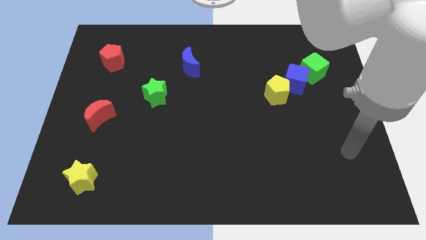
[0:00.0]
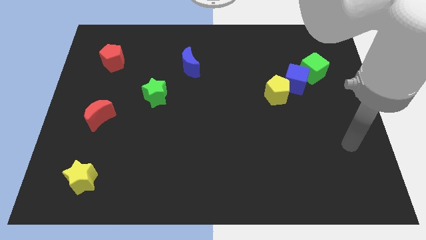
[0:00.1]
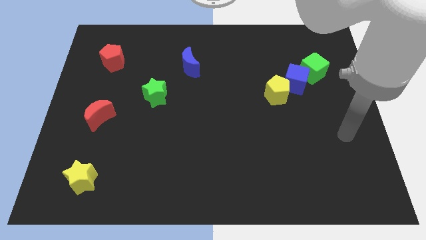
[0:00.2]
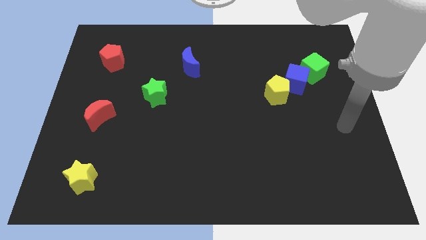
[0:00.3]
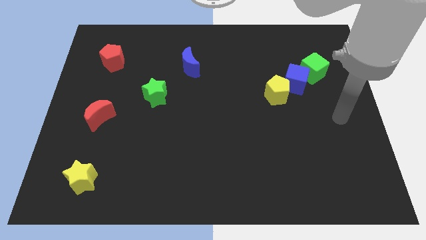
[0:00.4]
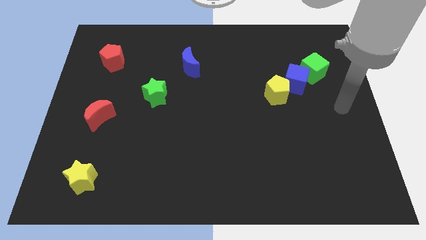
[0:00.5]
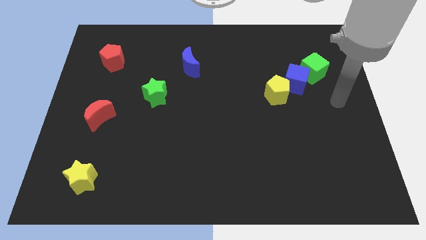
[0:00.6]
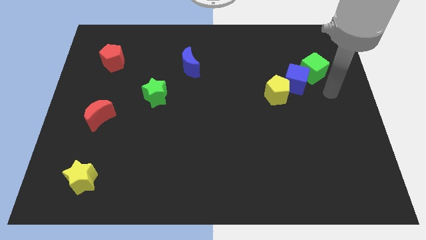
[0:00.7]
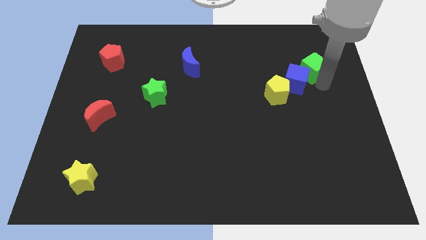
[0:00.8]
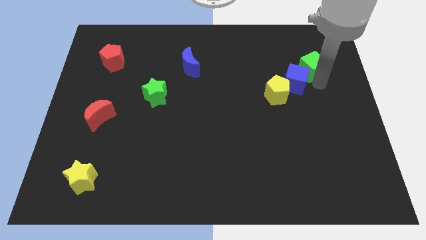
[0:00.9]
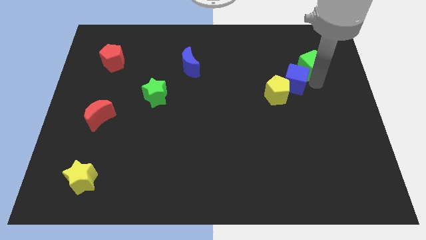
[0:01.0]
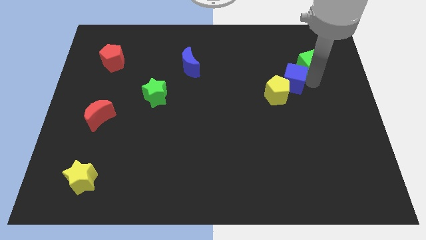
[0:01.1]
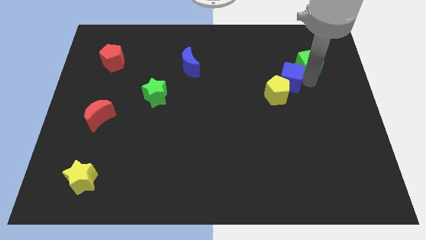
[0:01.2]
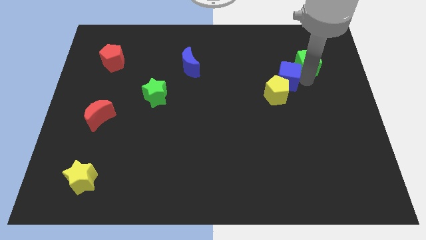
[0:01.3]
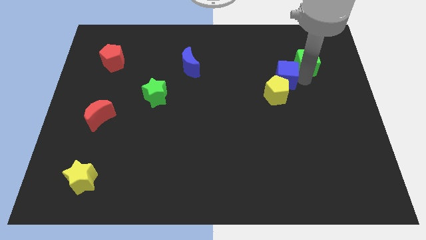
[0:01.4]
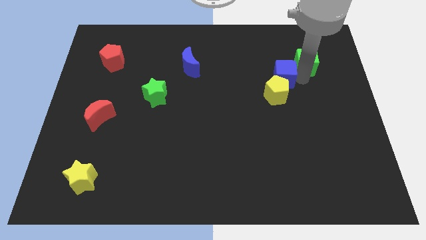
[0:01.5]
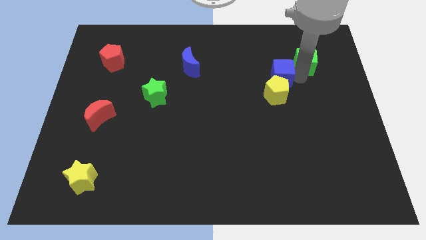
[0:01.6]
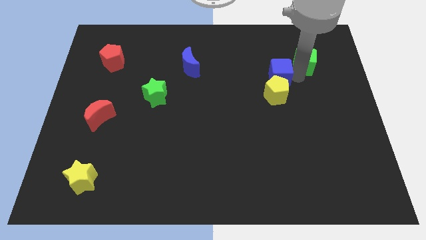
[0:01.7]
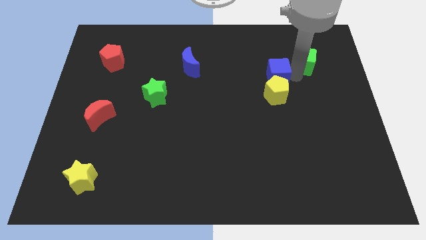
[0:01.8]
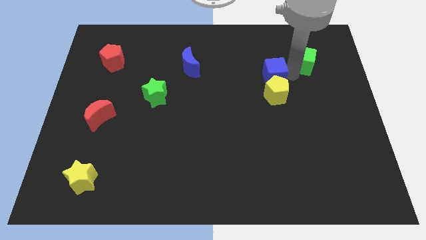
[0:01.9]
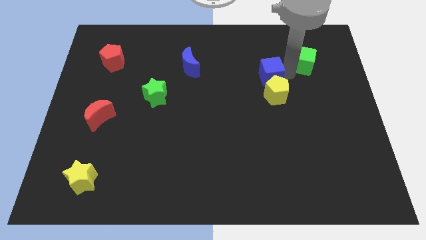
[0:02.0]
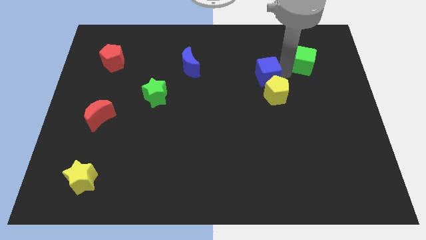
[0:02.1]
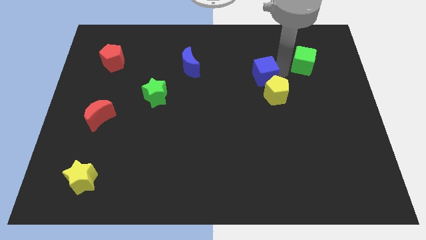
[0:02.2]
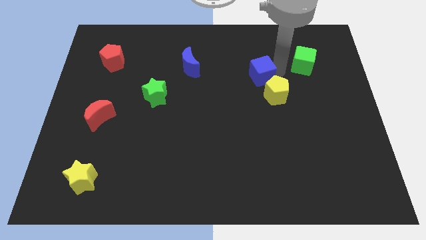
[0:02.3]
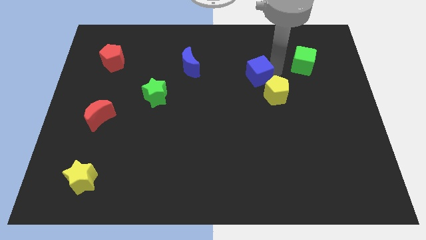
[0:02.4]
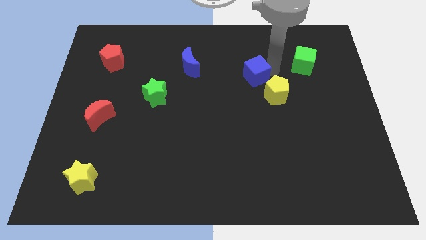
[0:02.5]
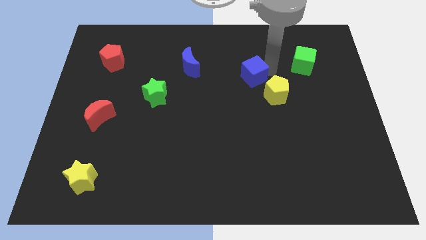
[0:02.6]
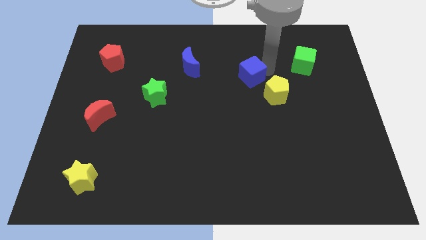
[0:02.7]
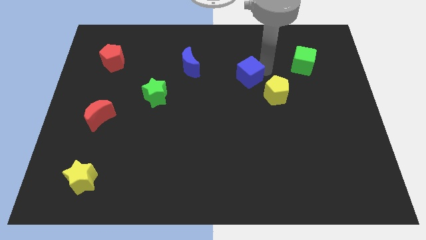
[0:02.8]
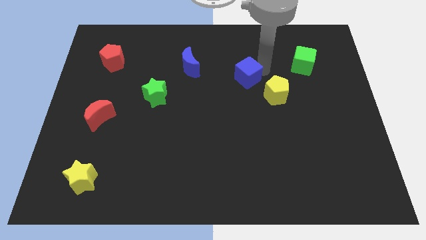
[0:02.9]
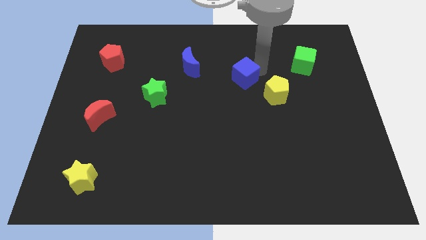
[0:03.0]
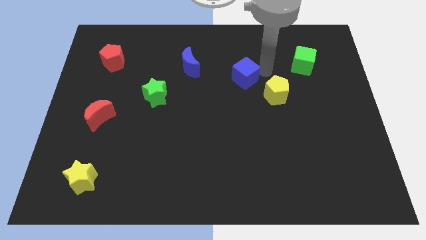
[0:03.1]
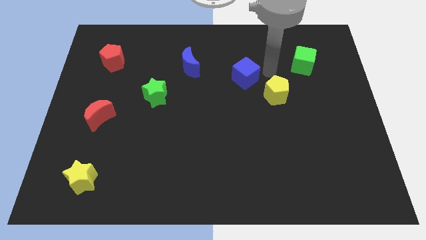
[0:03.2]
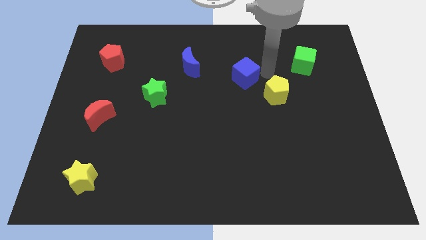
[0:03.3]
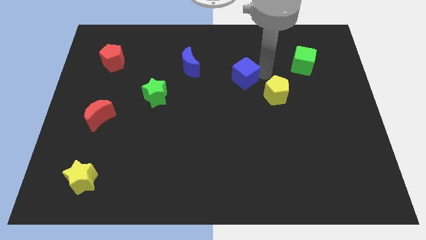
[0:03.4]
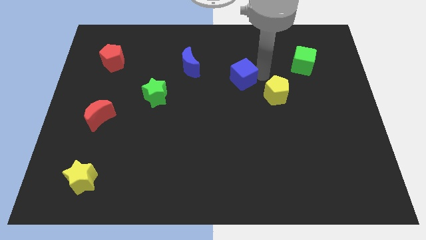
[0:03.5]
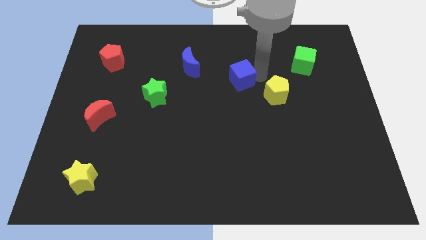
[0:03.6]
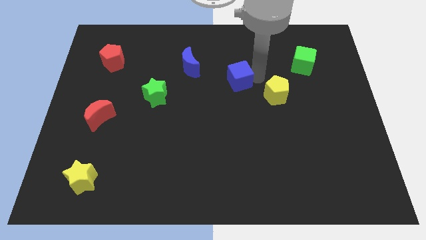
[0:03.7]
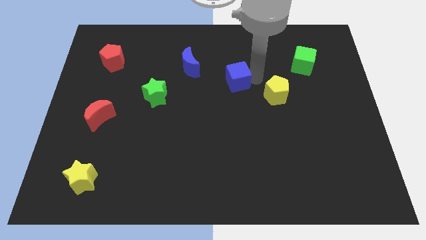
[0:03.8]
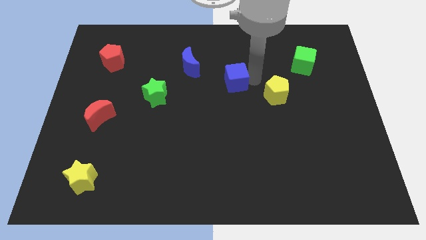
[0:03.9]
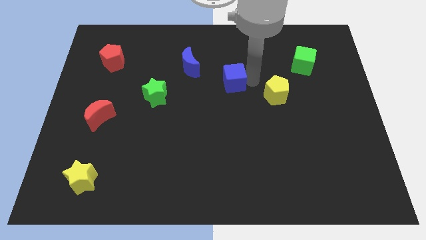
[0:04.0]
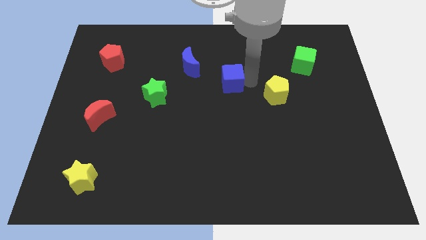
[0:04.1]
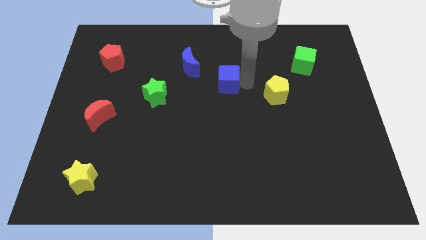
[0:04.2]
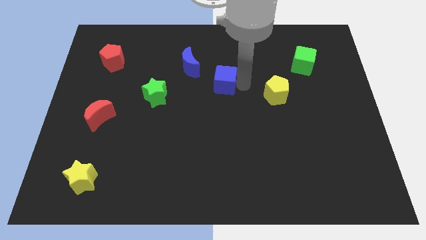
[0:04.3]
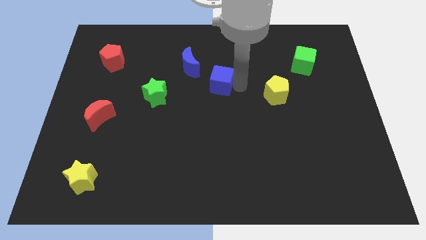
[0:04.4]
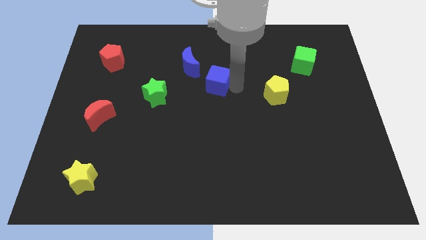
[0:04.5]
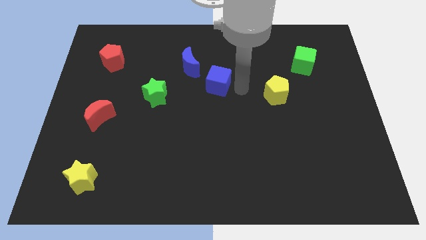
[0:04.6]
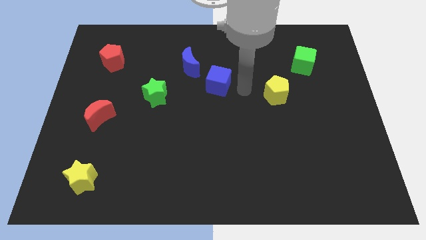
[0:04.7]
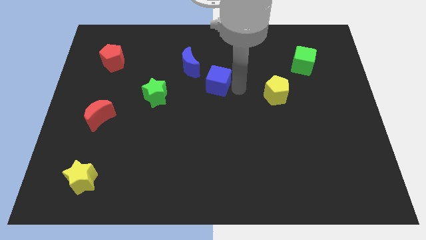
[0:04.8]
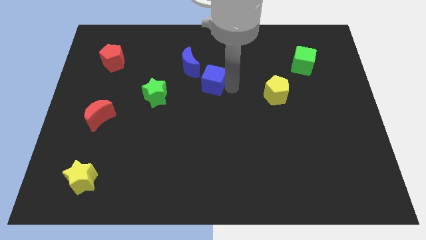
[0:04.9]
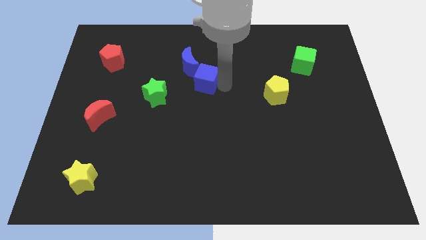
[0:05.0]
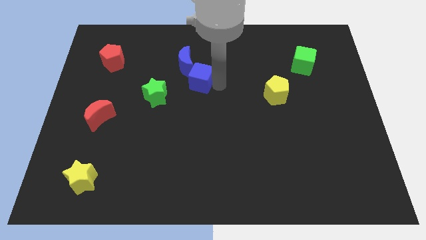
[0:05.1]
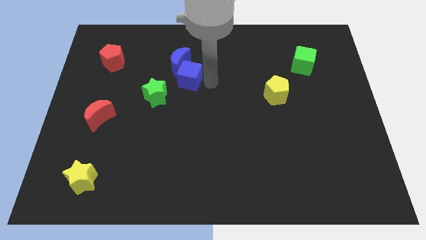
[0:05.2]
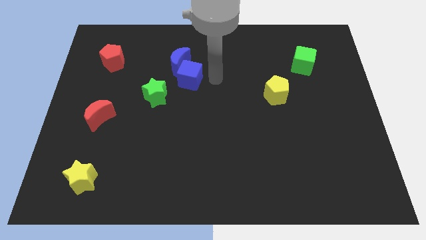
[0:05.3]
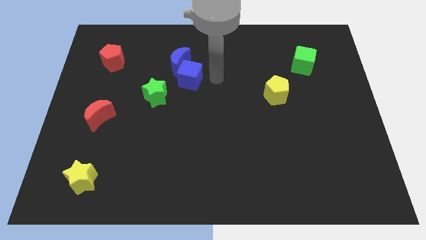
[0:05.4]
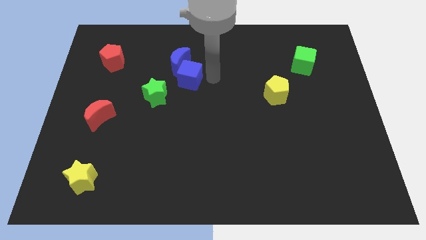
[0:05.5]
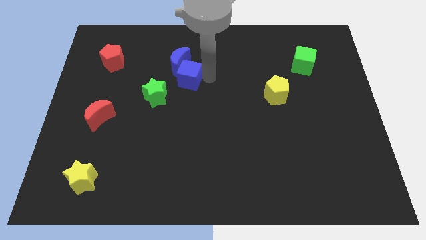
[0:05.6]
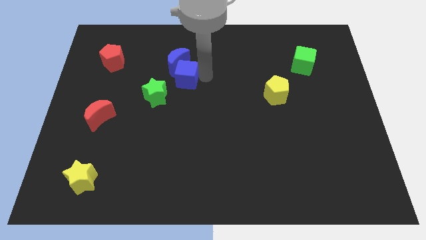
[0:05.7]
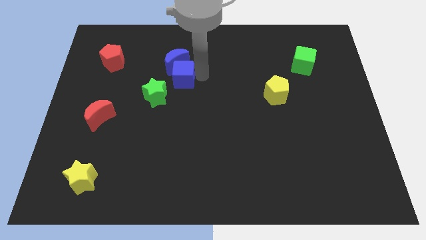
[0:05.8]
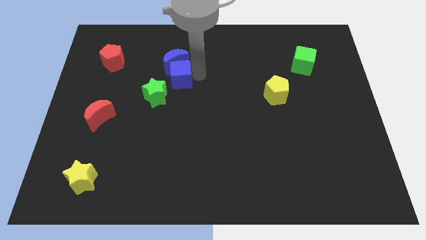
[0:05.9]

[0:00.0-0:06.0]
slide the blue cube to the bottom left side of the blue moon

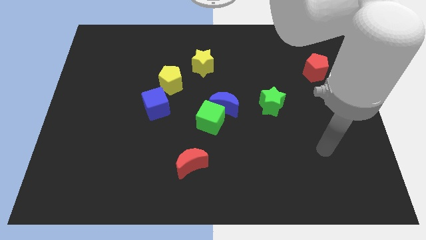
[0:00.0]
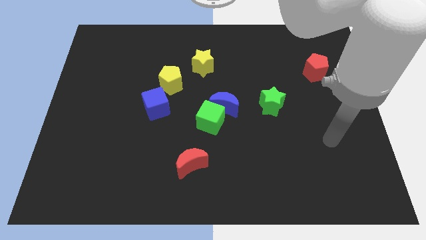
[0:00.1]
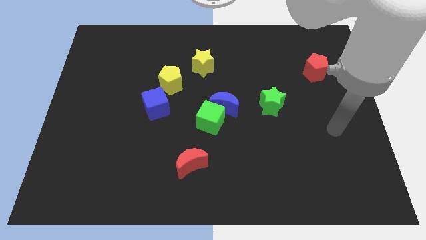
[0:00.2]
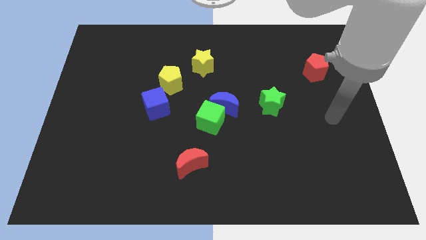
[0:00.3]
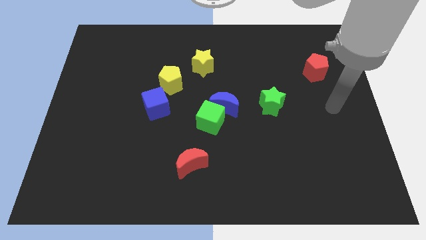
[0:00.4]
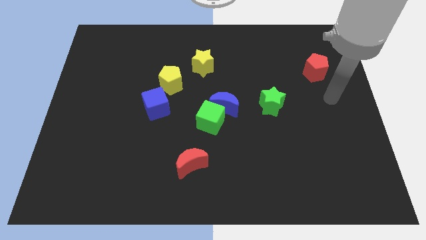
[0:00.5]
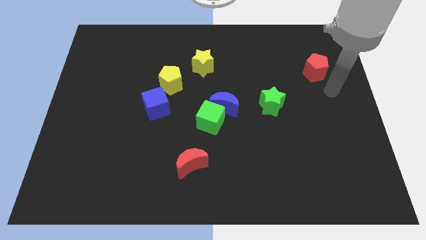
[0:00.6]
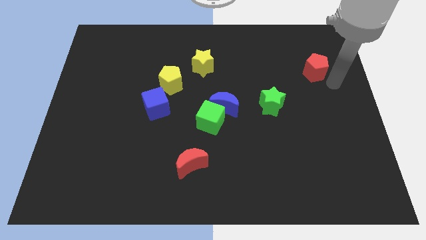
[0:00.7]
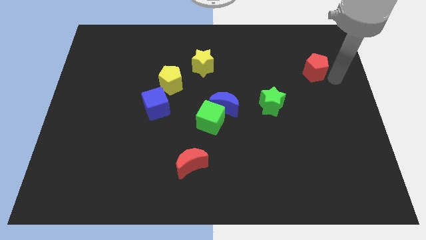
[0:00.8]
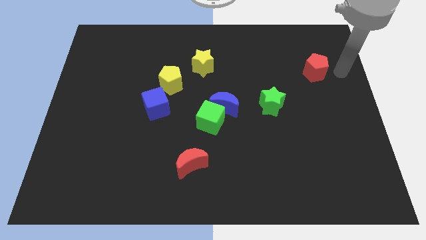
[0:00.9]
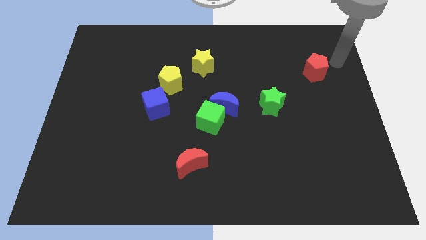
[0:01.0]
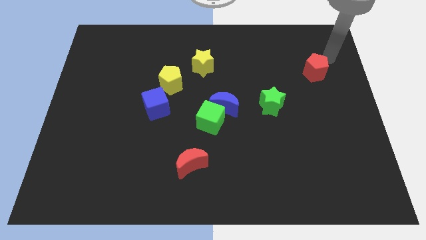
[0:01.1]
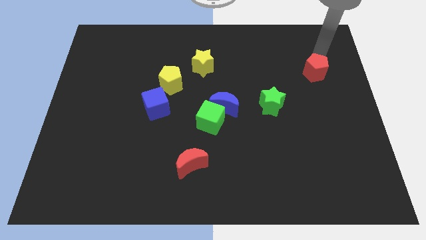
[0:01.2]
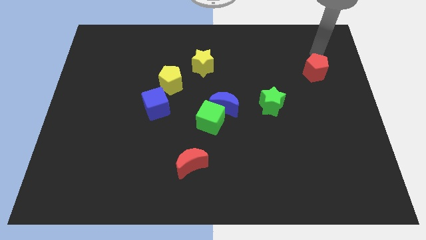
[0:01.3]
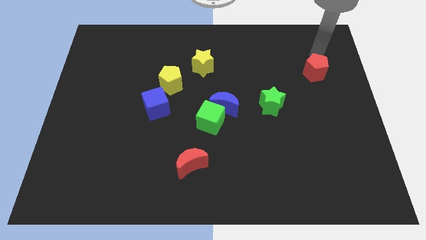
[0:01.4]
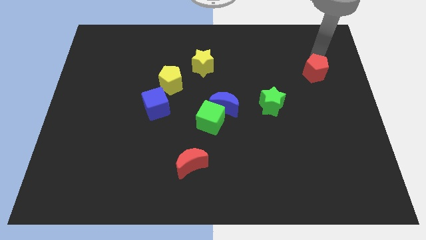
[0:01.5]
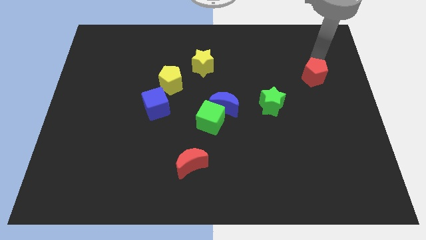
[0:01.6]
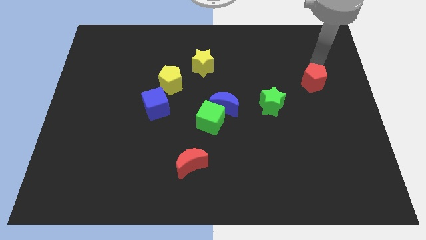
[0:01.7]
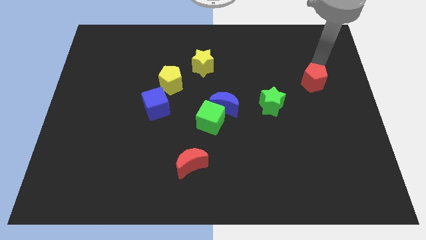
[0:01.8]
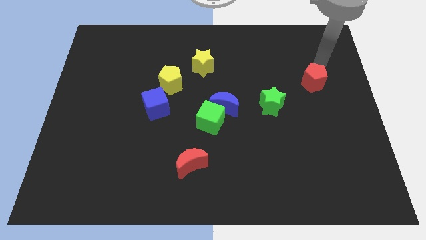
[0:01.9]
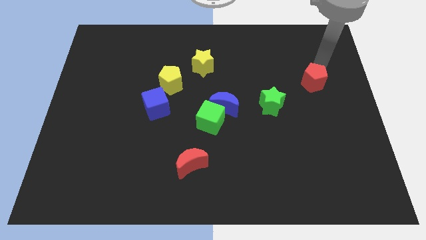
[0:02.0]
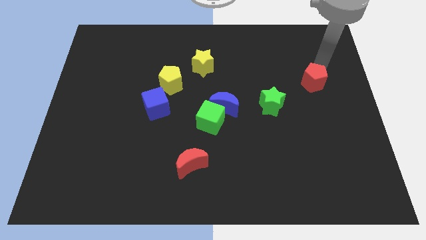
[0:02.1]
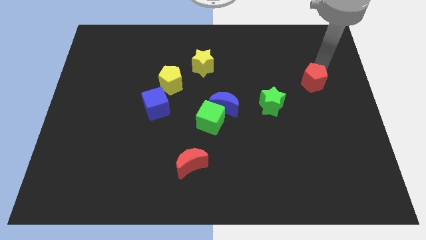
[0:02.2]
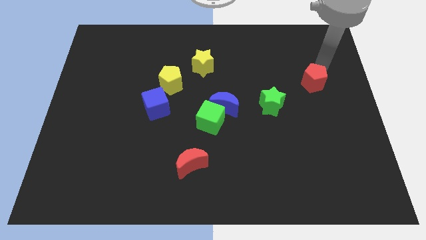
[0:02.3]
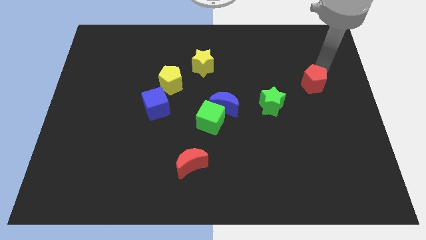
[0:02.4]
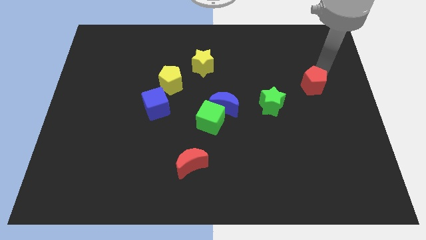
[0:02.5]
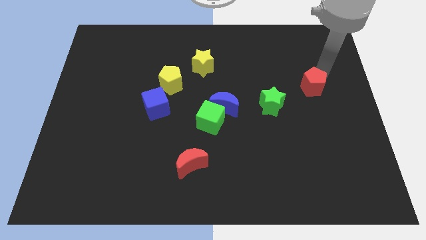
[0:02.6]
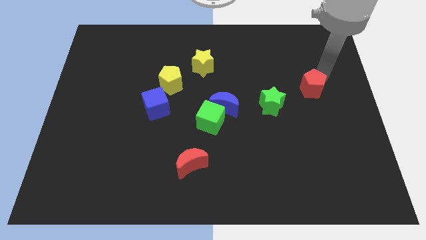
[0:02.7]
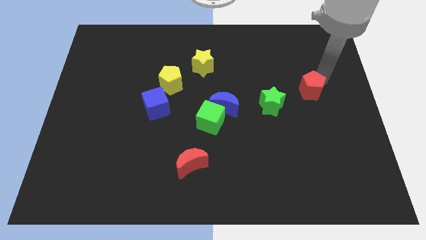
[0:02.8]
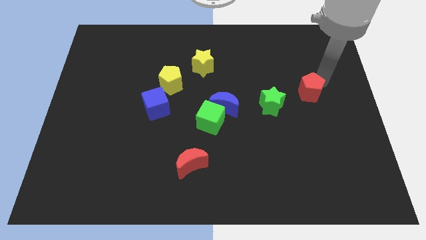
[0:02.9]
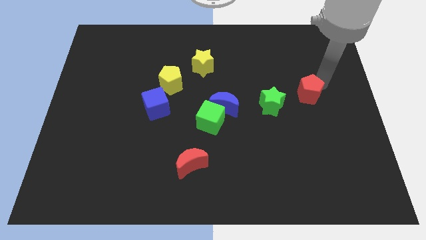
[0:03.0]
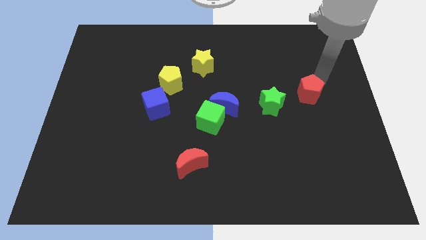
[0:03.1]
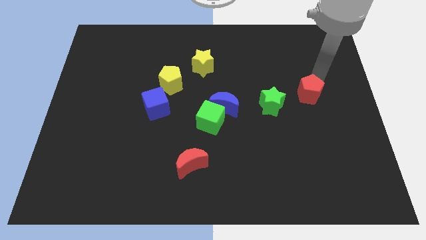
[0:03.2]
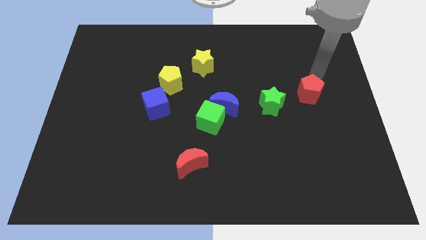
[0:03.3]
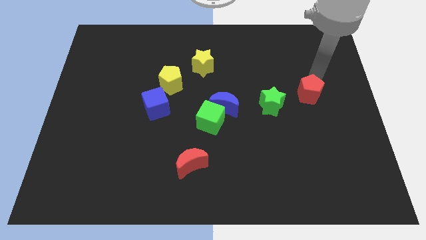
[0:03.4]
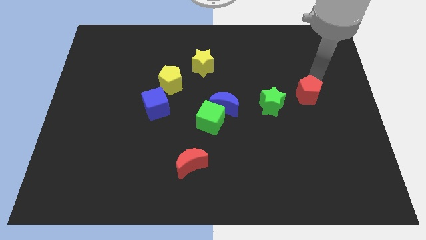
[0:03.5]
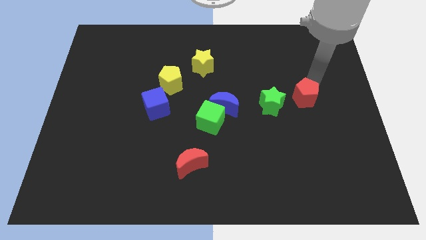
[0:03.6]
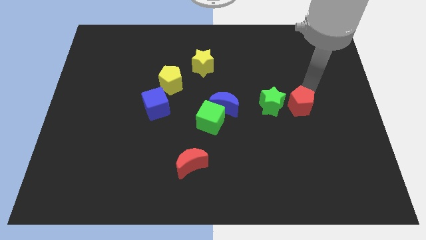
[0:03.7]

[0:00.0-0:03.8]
put the red pentagon to the bottom right side of the green star
